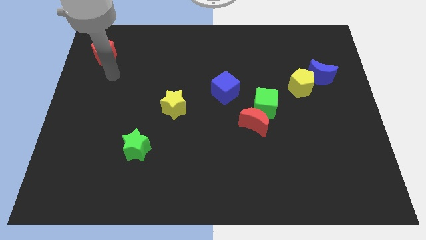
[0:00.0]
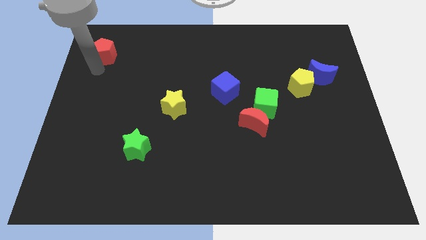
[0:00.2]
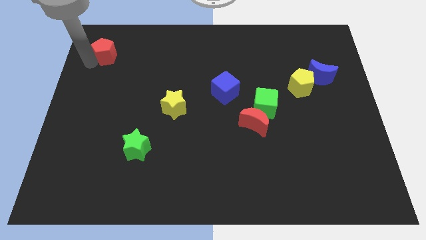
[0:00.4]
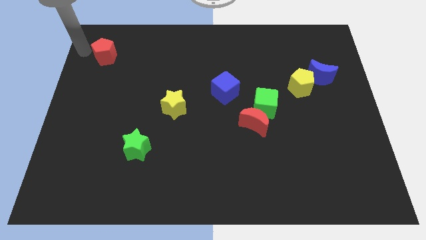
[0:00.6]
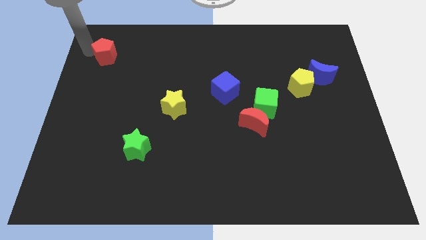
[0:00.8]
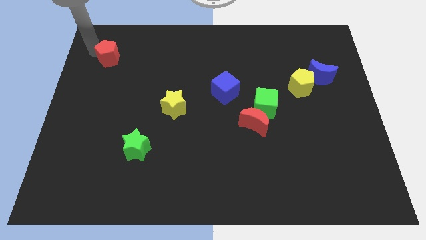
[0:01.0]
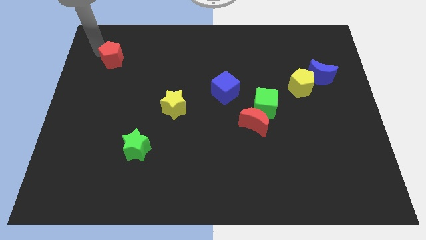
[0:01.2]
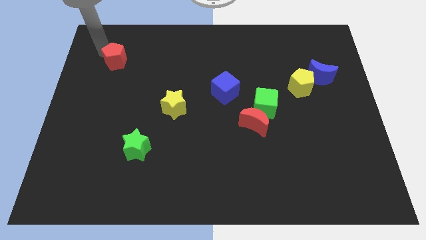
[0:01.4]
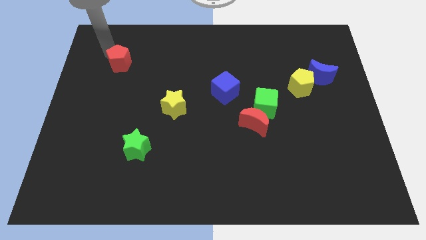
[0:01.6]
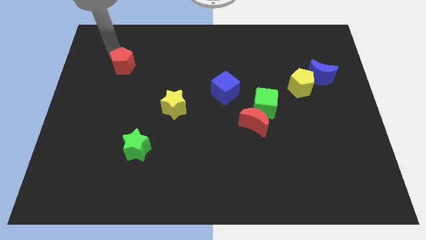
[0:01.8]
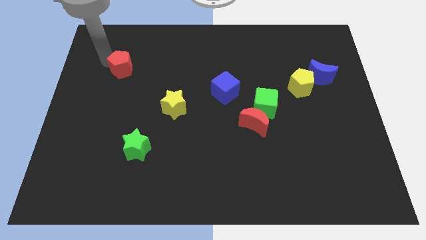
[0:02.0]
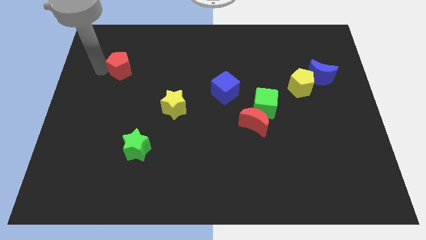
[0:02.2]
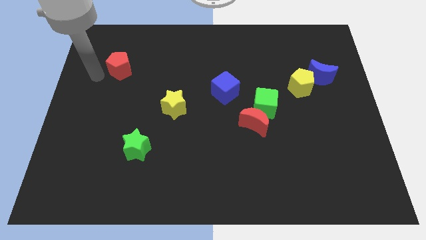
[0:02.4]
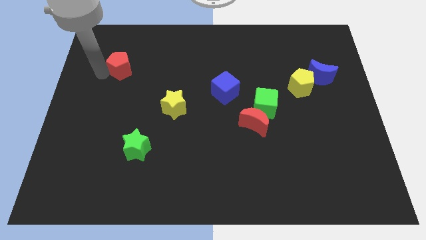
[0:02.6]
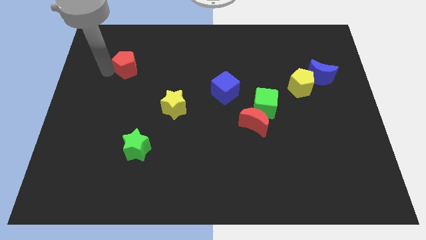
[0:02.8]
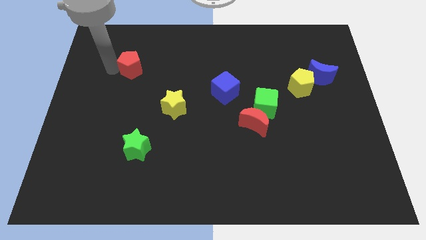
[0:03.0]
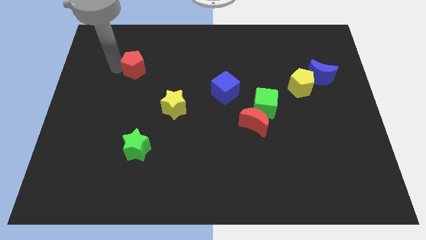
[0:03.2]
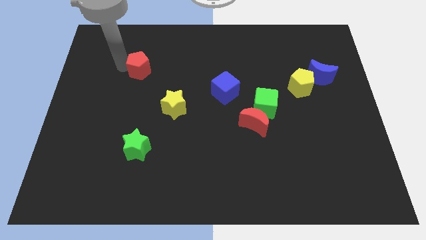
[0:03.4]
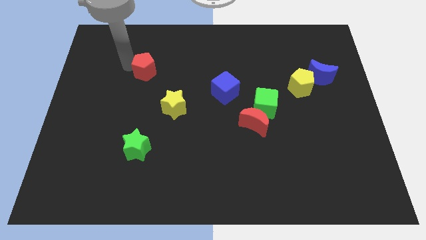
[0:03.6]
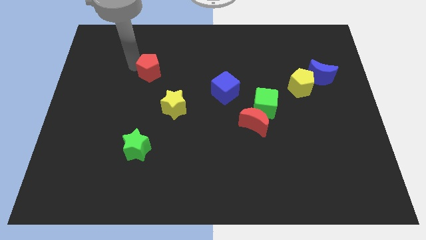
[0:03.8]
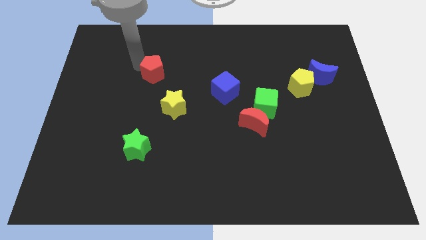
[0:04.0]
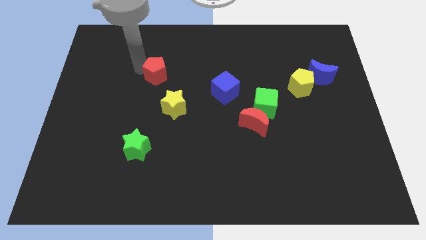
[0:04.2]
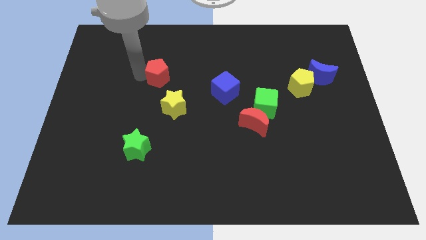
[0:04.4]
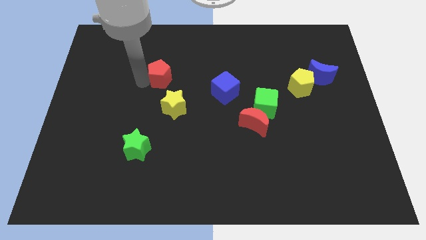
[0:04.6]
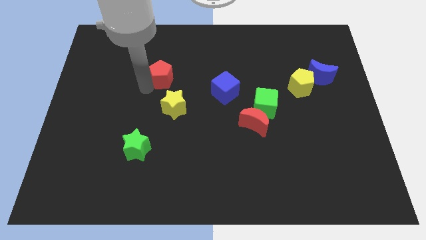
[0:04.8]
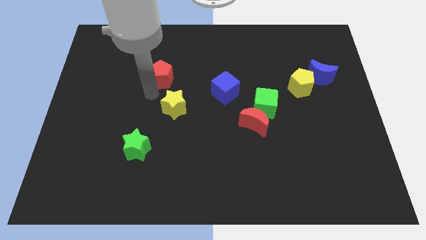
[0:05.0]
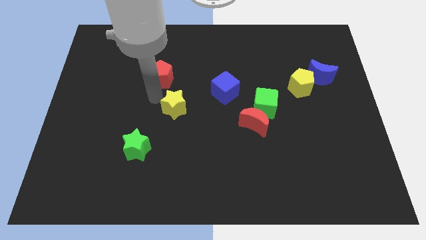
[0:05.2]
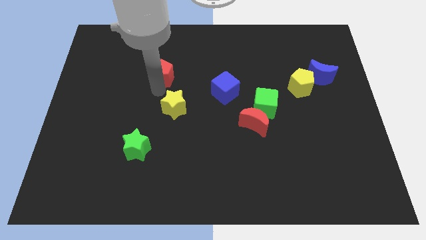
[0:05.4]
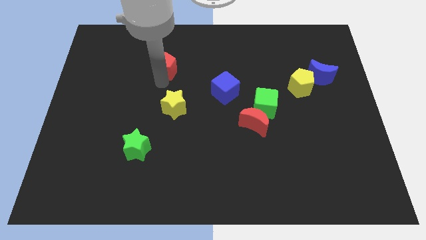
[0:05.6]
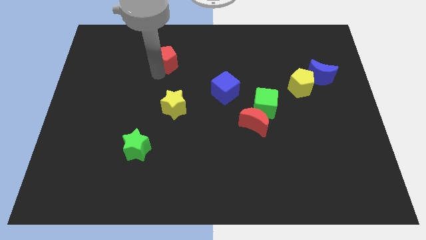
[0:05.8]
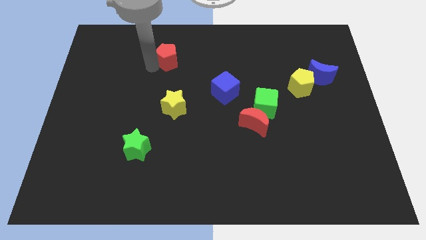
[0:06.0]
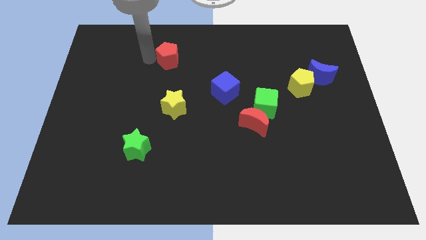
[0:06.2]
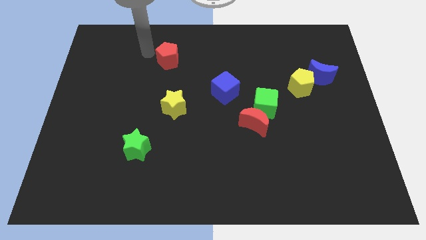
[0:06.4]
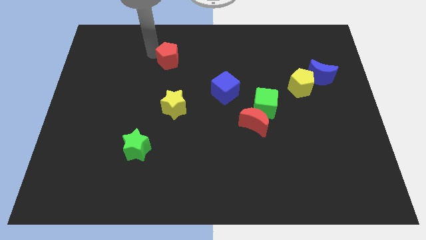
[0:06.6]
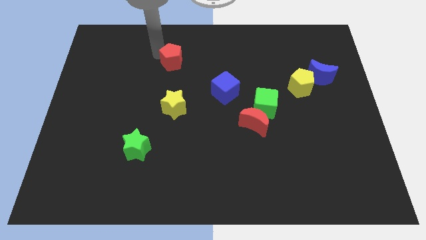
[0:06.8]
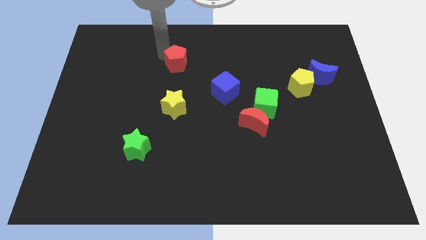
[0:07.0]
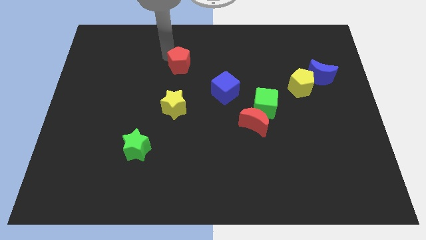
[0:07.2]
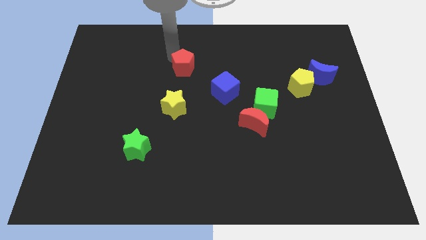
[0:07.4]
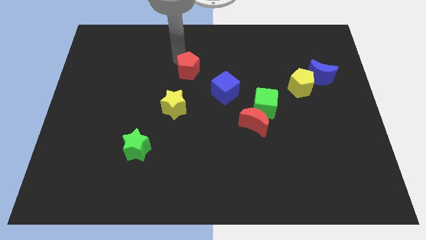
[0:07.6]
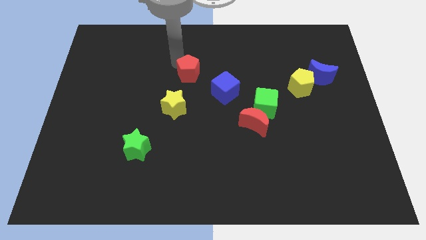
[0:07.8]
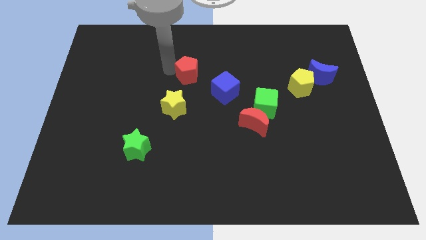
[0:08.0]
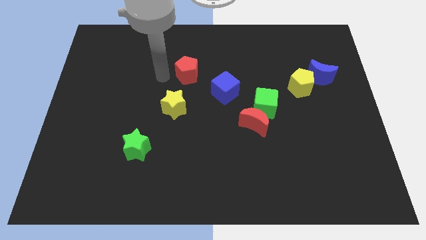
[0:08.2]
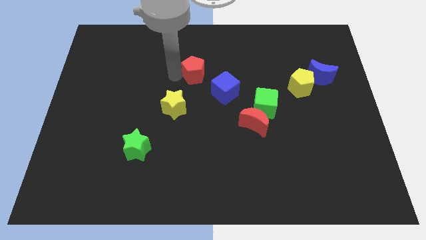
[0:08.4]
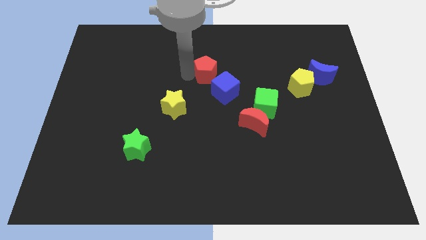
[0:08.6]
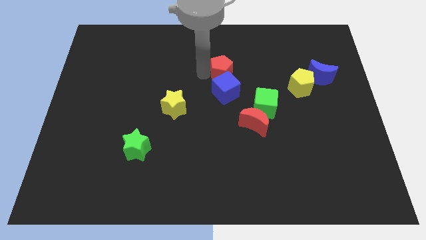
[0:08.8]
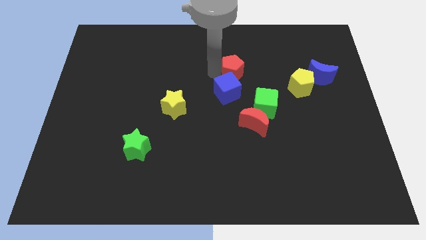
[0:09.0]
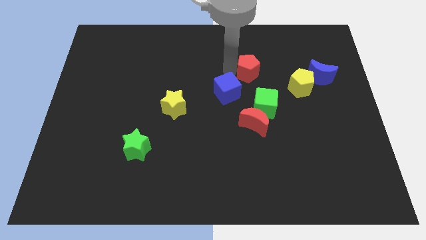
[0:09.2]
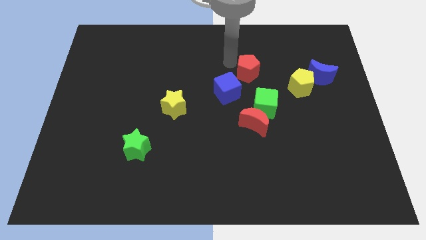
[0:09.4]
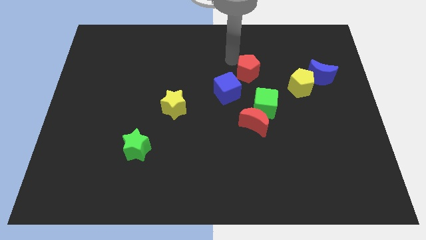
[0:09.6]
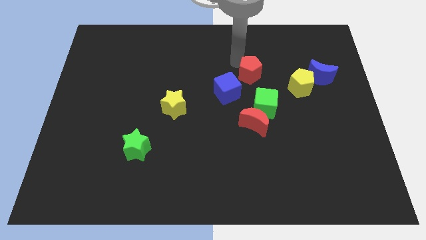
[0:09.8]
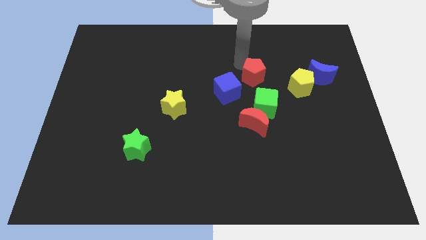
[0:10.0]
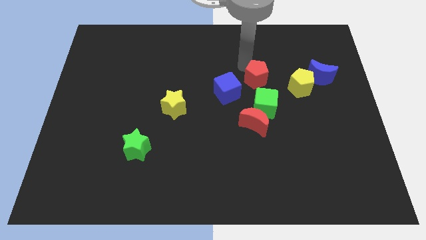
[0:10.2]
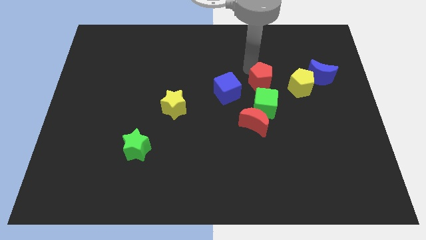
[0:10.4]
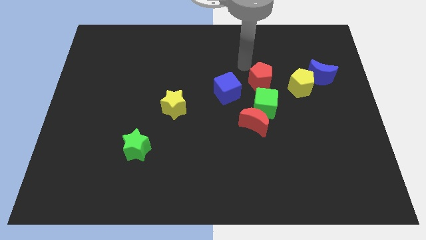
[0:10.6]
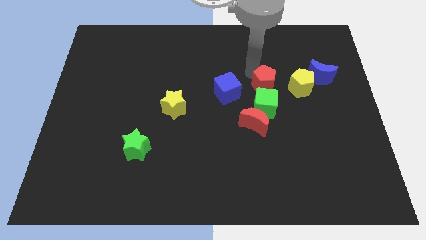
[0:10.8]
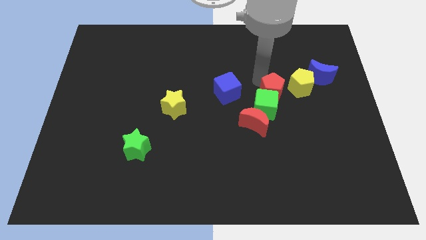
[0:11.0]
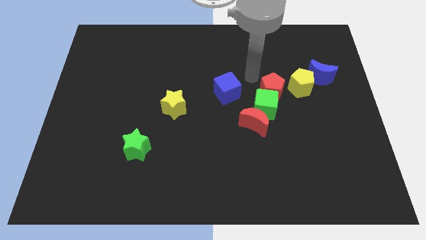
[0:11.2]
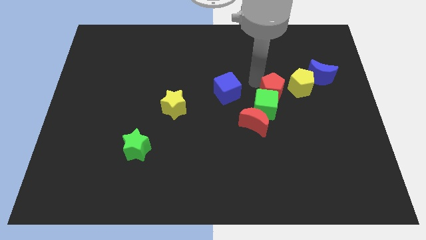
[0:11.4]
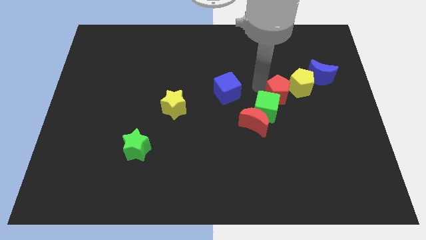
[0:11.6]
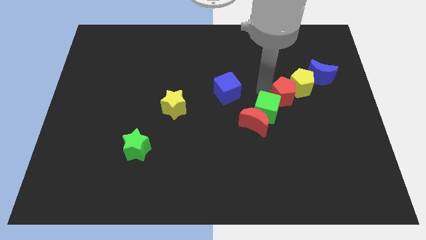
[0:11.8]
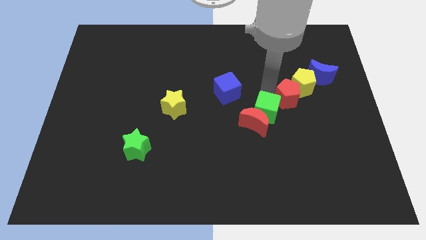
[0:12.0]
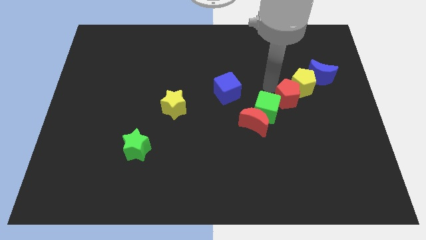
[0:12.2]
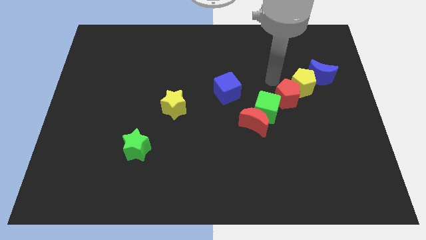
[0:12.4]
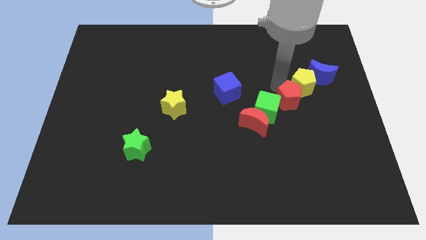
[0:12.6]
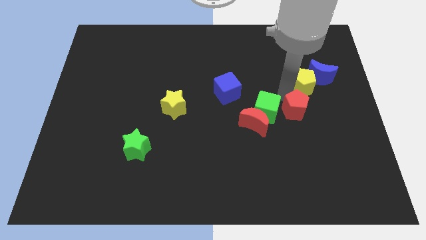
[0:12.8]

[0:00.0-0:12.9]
move the red pentagon to the right of the red moon

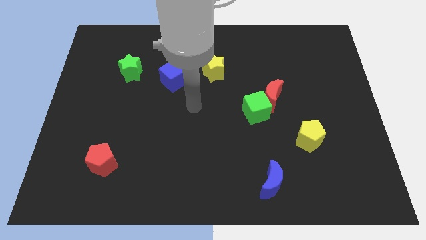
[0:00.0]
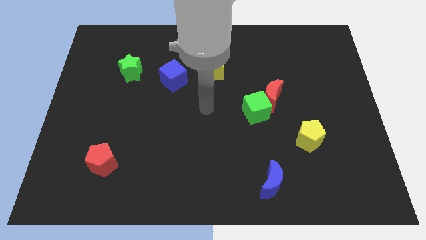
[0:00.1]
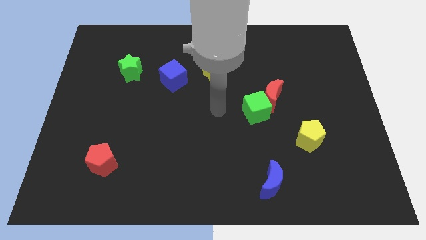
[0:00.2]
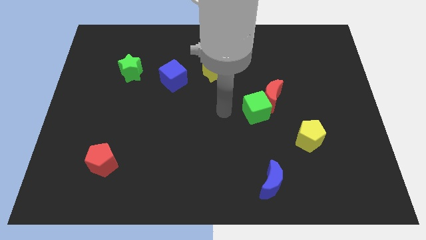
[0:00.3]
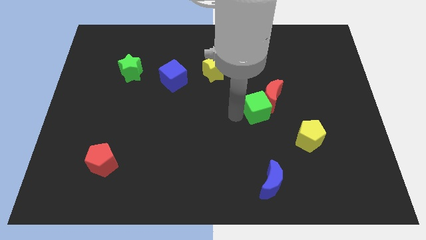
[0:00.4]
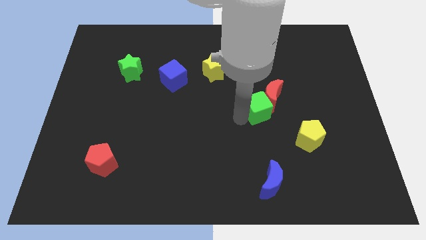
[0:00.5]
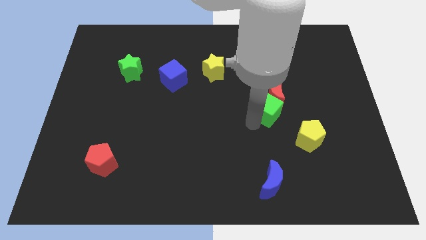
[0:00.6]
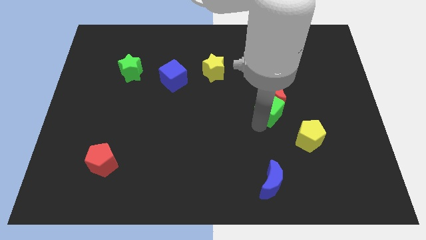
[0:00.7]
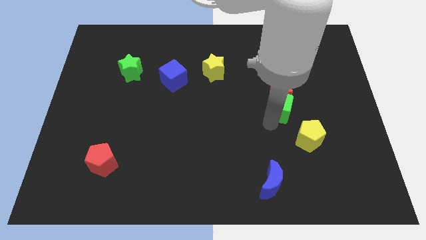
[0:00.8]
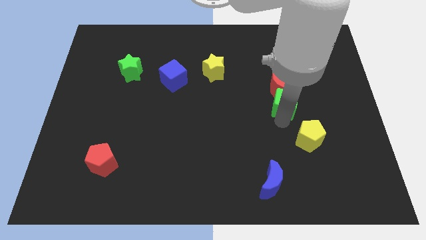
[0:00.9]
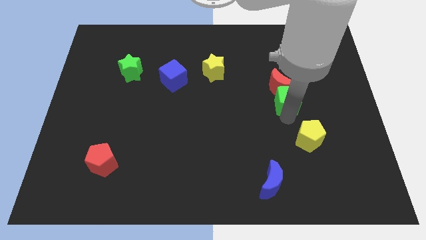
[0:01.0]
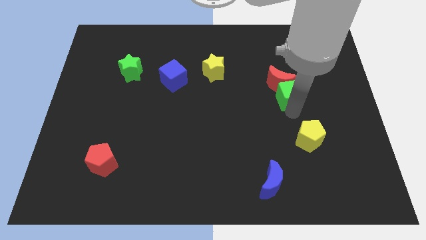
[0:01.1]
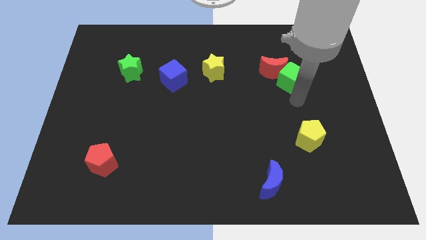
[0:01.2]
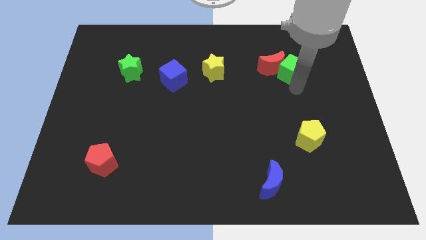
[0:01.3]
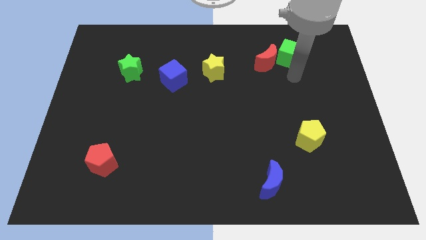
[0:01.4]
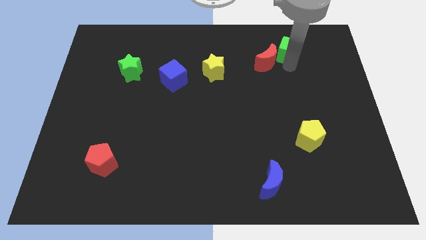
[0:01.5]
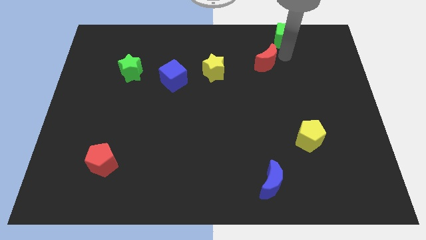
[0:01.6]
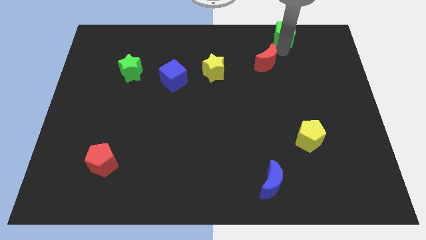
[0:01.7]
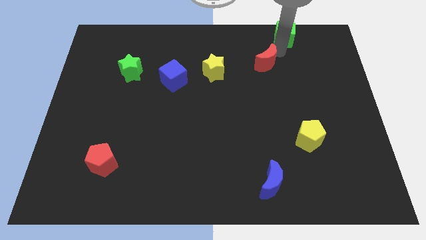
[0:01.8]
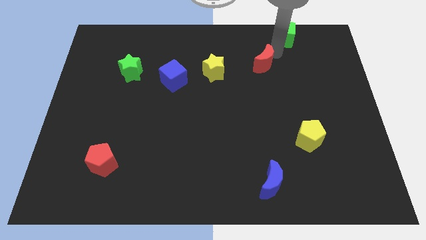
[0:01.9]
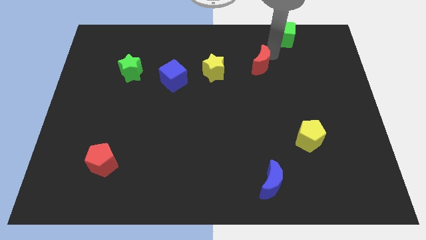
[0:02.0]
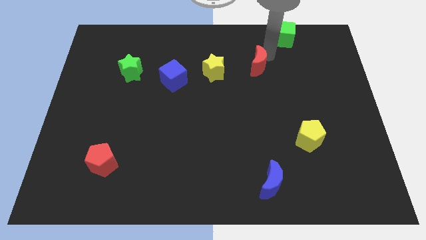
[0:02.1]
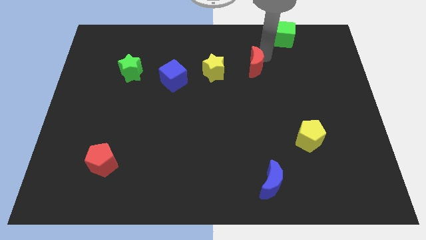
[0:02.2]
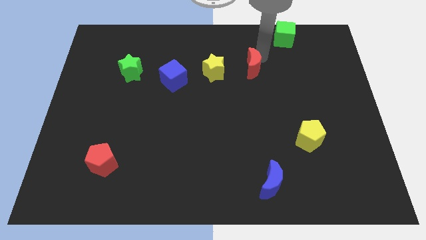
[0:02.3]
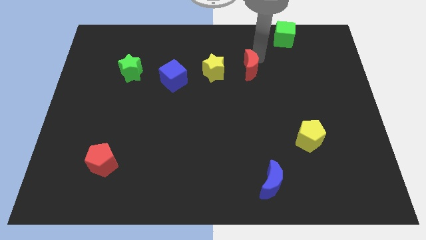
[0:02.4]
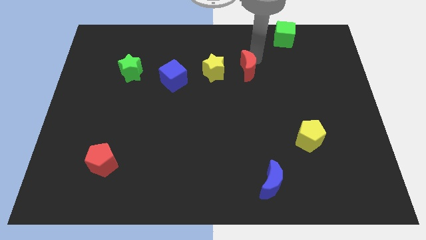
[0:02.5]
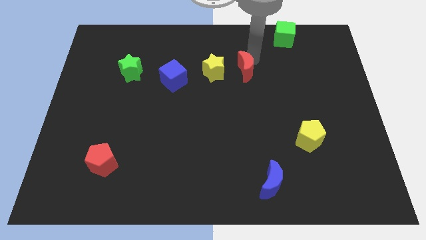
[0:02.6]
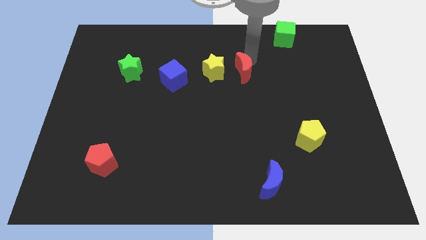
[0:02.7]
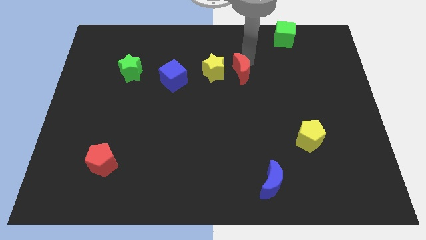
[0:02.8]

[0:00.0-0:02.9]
push the red moon diagonally down and to the right of the yellow star
